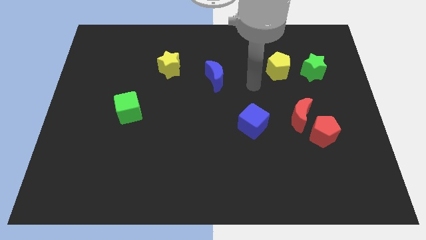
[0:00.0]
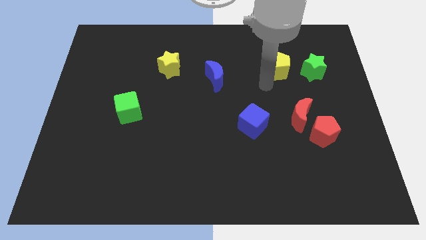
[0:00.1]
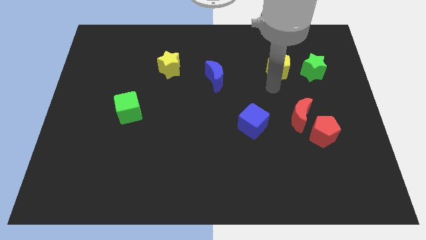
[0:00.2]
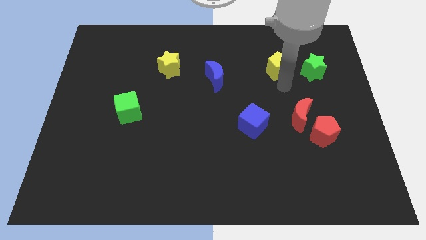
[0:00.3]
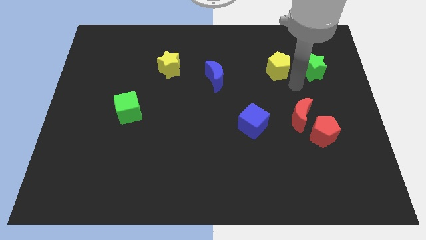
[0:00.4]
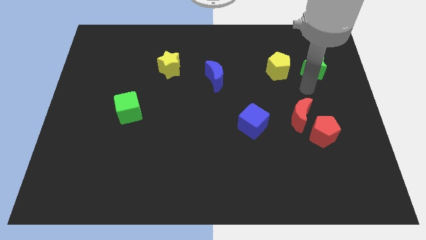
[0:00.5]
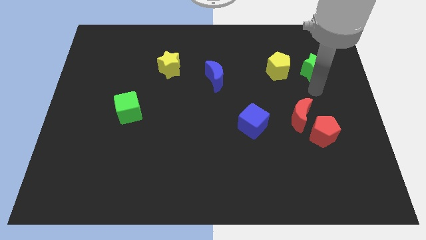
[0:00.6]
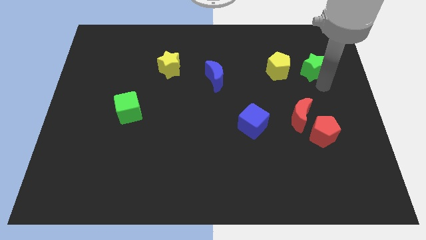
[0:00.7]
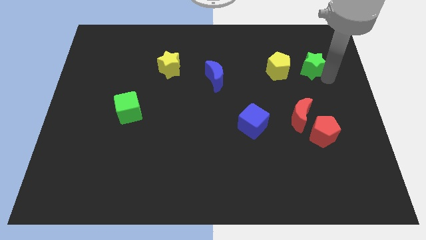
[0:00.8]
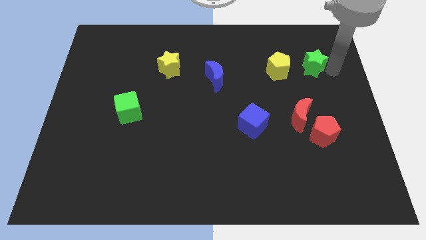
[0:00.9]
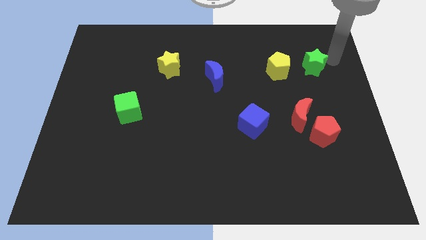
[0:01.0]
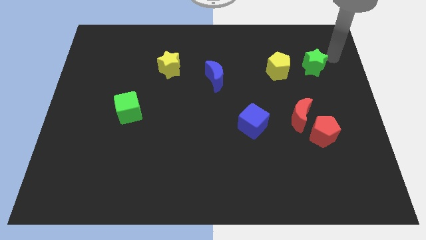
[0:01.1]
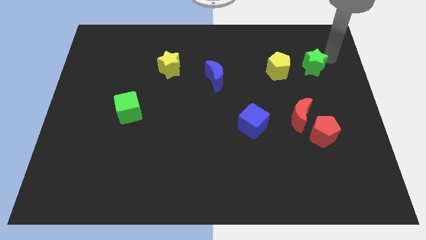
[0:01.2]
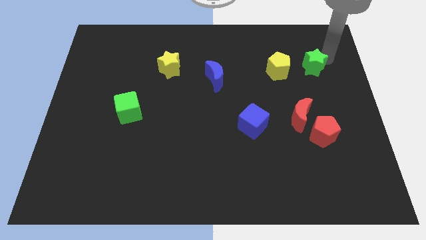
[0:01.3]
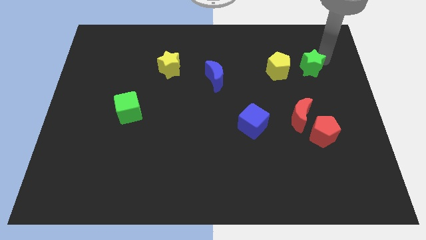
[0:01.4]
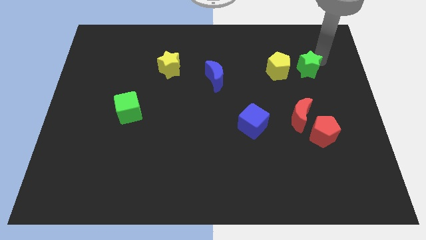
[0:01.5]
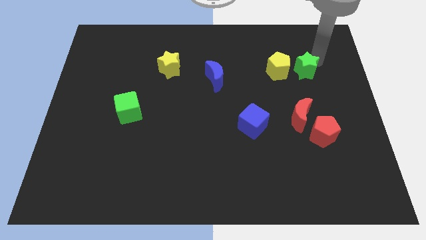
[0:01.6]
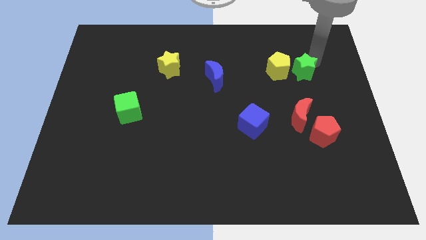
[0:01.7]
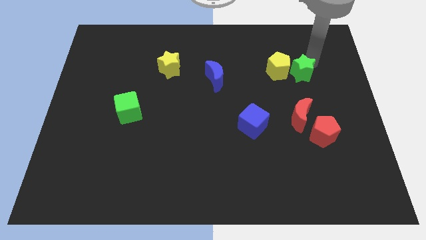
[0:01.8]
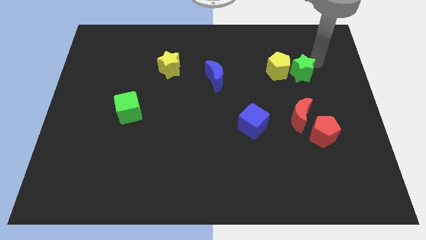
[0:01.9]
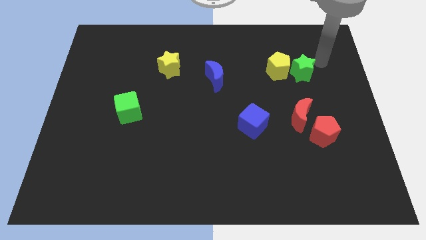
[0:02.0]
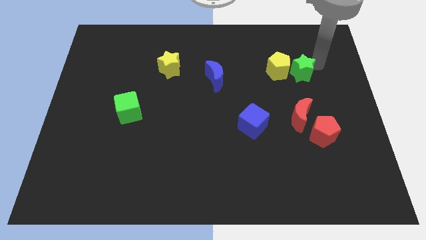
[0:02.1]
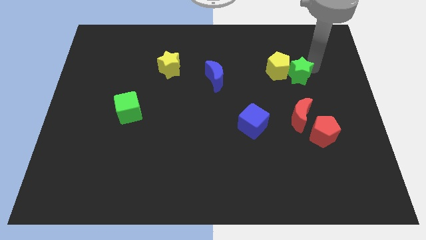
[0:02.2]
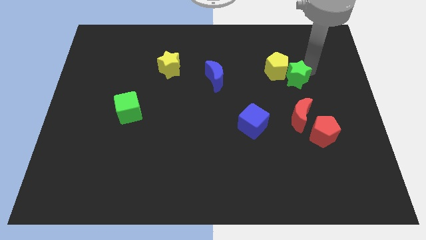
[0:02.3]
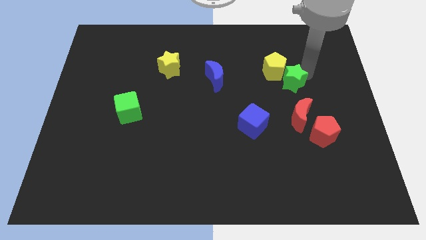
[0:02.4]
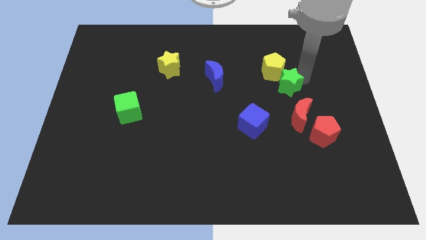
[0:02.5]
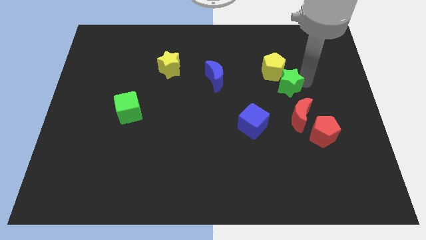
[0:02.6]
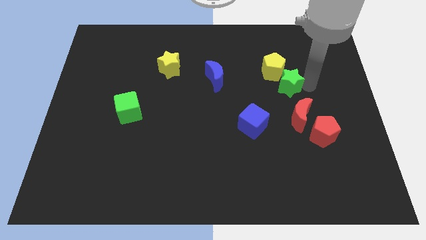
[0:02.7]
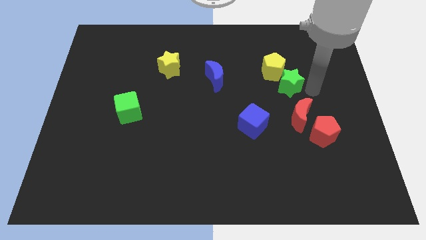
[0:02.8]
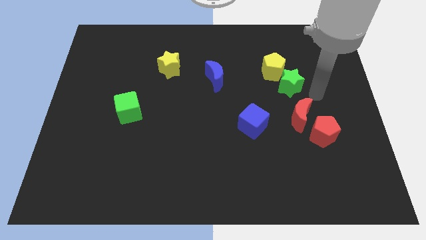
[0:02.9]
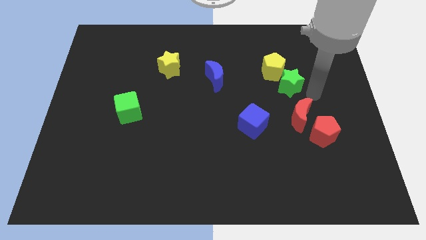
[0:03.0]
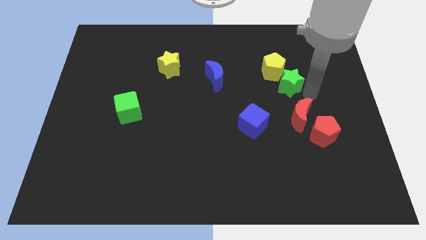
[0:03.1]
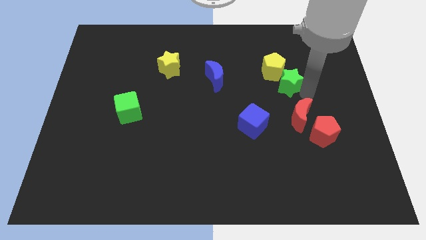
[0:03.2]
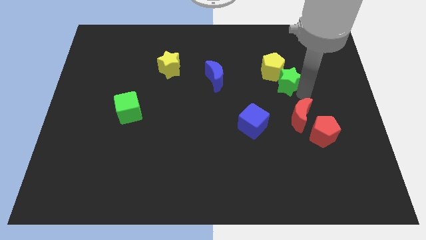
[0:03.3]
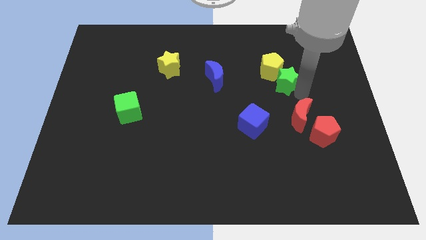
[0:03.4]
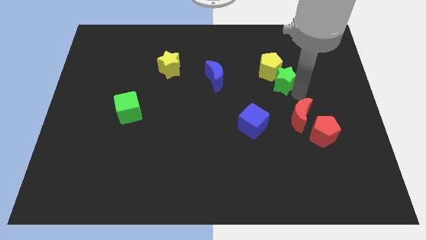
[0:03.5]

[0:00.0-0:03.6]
move the green star a little to the left

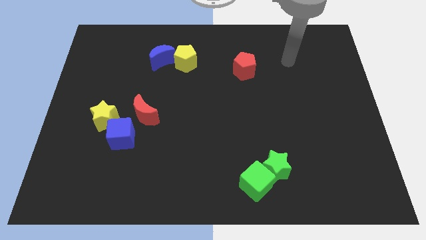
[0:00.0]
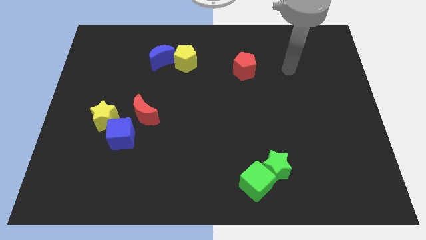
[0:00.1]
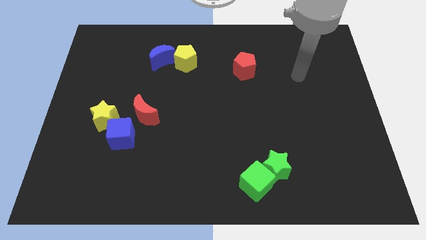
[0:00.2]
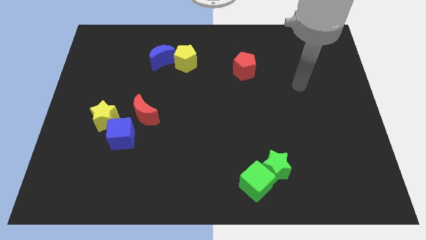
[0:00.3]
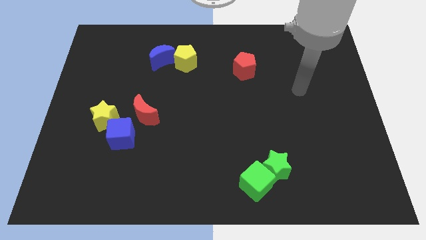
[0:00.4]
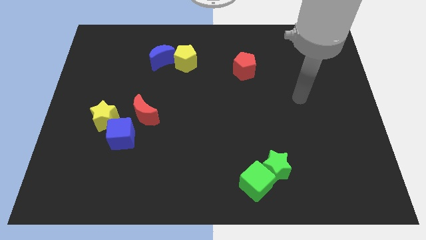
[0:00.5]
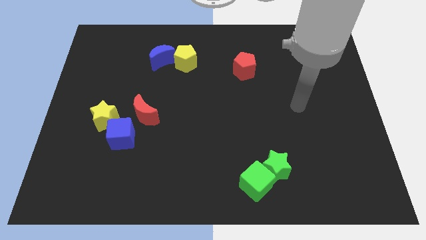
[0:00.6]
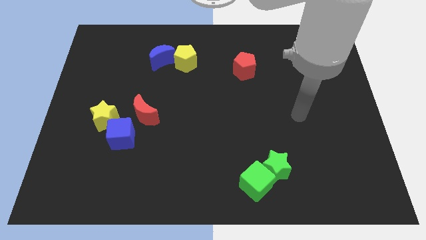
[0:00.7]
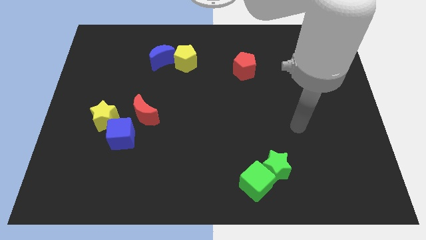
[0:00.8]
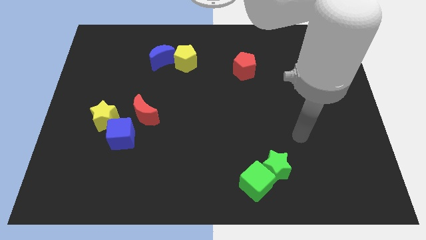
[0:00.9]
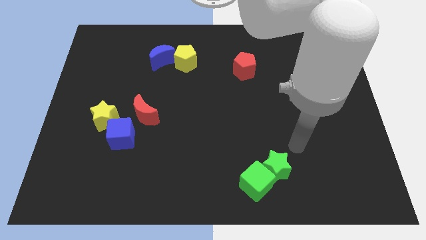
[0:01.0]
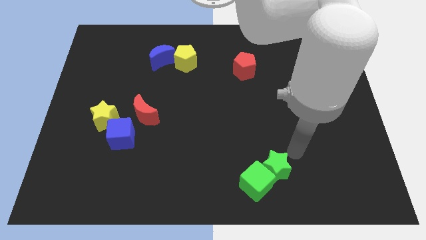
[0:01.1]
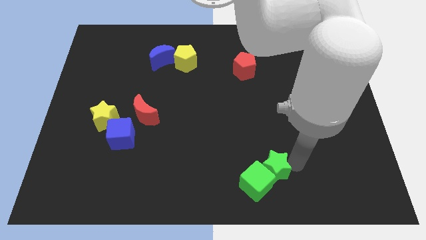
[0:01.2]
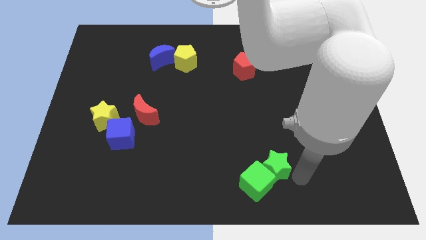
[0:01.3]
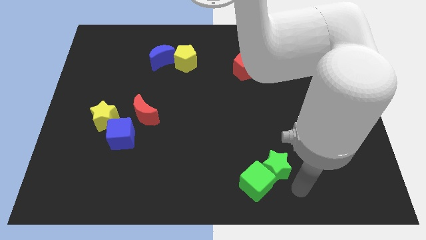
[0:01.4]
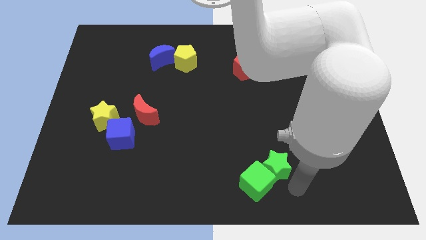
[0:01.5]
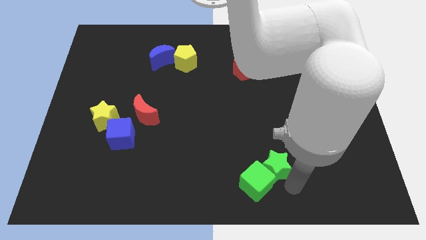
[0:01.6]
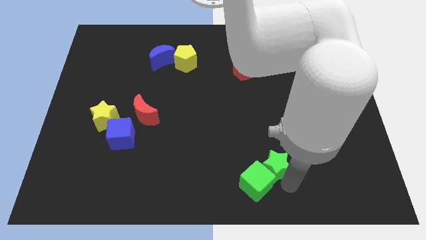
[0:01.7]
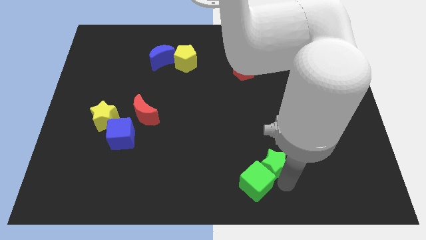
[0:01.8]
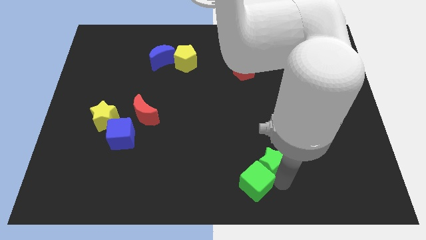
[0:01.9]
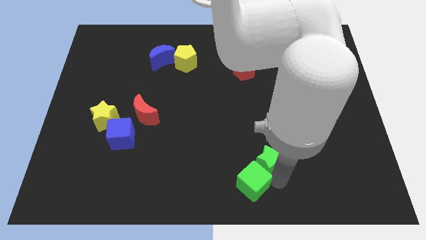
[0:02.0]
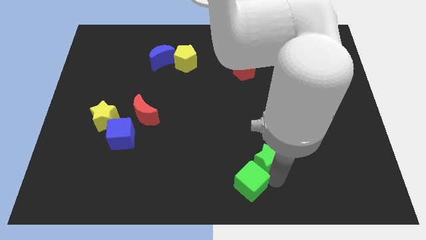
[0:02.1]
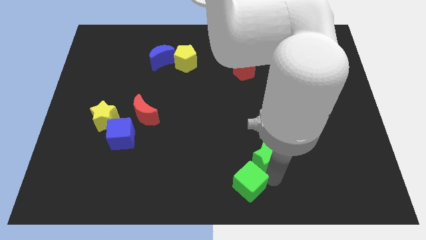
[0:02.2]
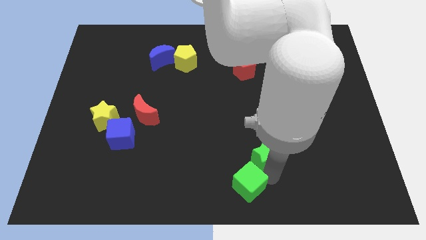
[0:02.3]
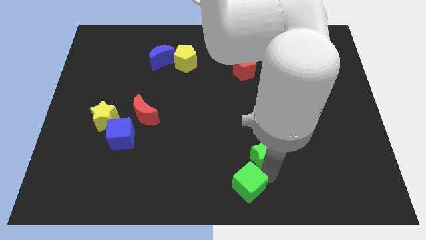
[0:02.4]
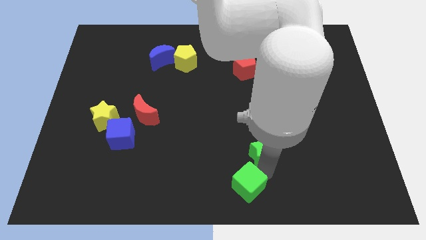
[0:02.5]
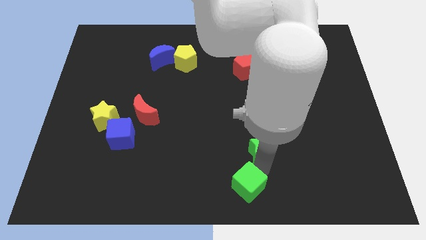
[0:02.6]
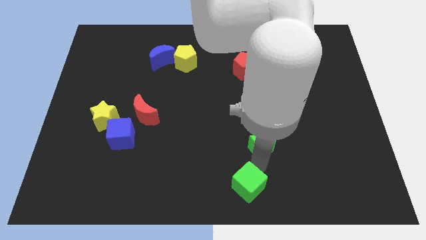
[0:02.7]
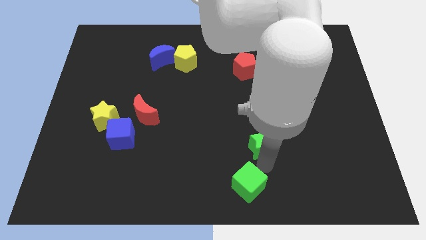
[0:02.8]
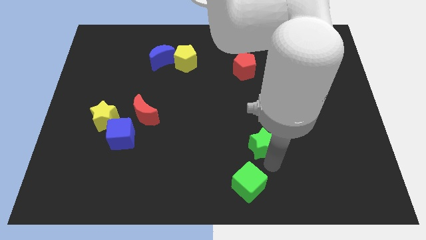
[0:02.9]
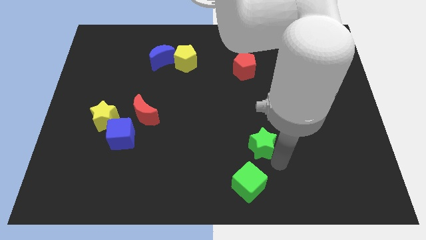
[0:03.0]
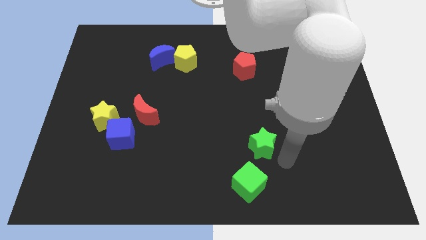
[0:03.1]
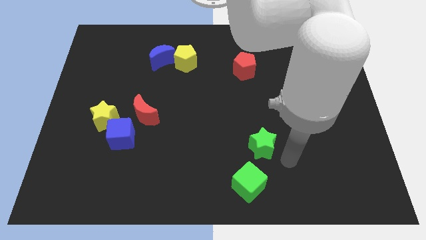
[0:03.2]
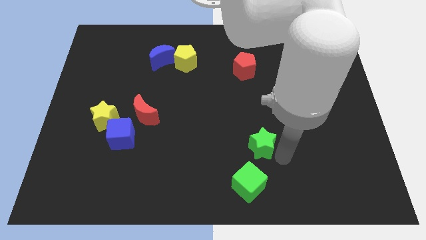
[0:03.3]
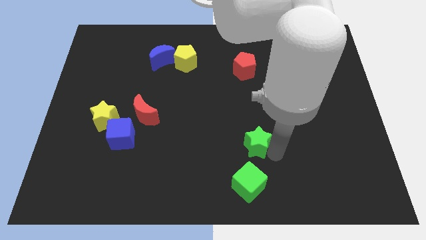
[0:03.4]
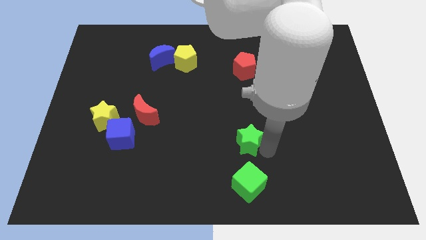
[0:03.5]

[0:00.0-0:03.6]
slightly move the green star diagonally up and left

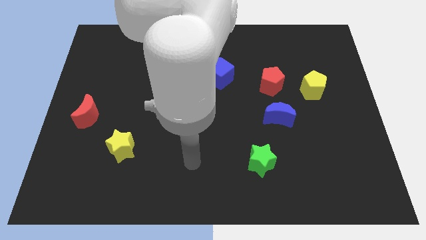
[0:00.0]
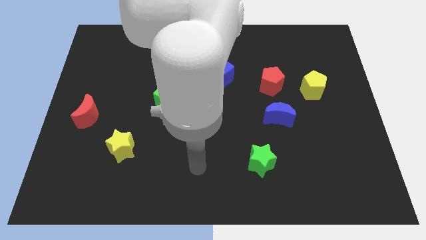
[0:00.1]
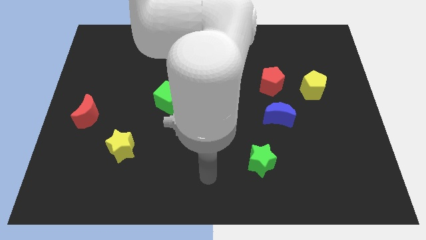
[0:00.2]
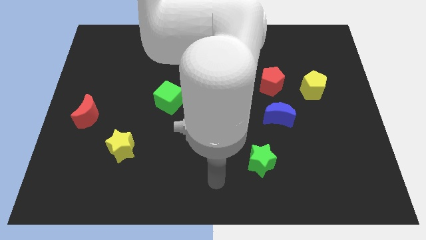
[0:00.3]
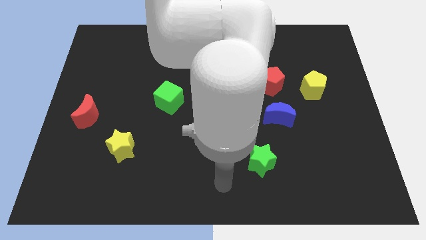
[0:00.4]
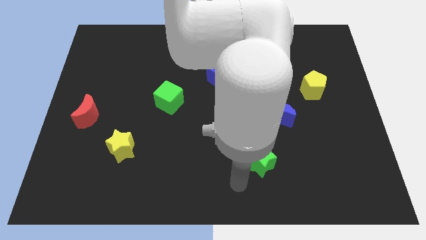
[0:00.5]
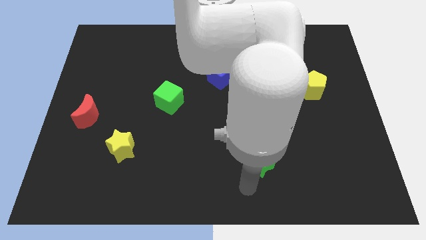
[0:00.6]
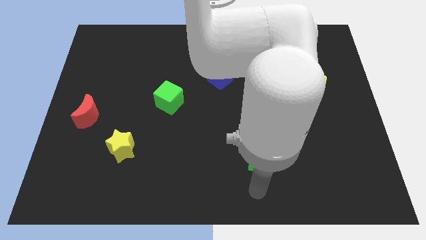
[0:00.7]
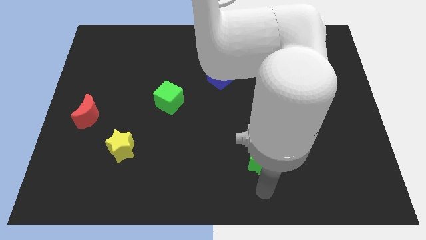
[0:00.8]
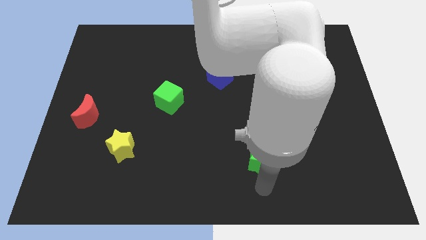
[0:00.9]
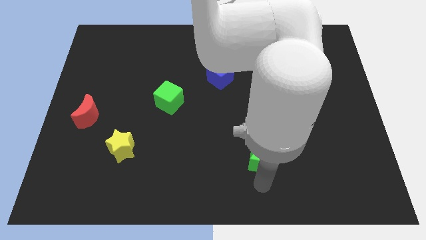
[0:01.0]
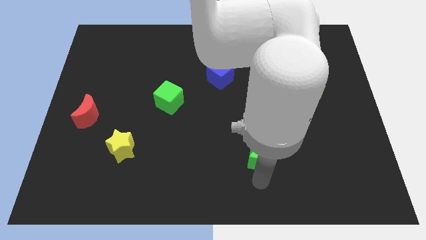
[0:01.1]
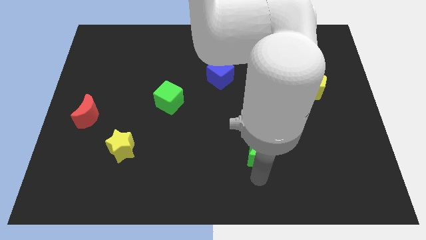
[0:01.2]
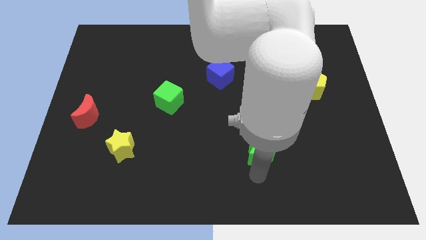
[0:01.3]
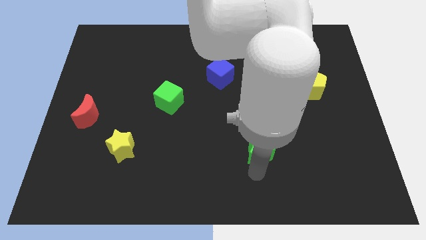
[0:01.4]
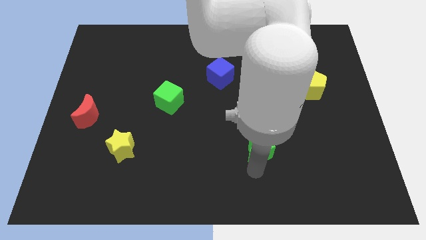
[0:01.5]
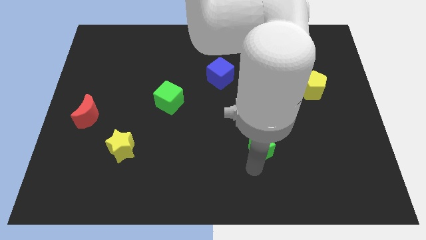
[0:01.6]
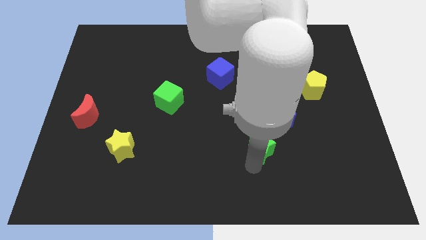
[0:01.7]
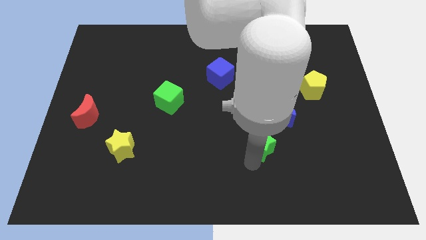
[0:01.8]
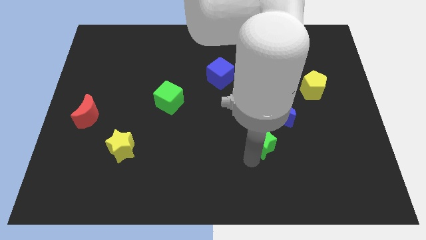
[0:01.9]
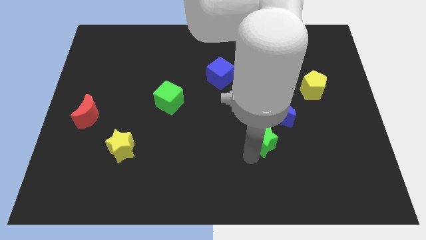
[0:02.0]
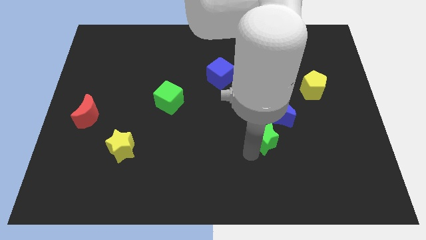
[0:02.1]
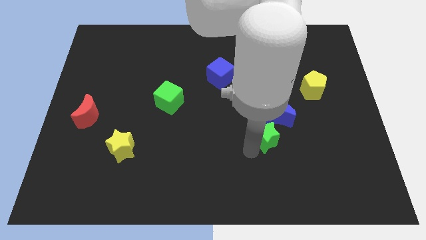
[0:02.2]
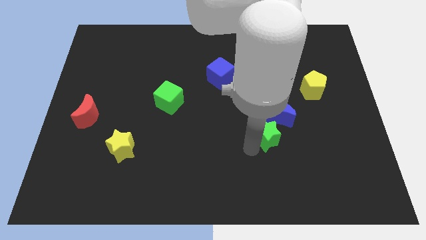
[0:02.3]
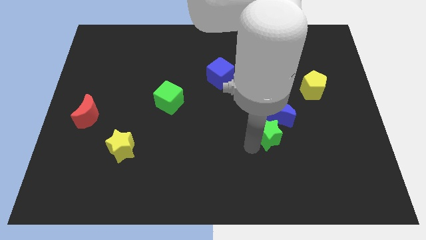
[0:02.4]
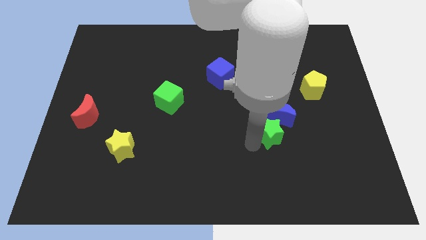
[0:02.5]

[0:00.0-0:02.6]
slide the green star a bit up
